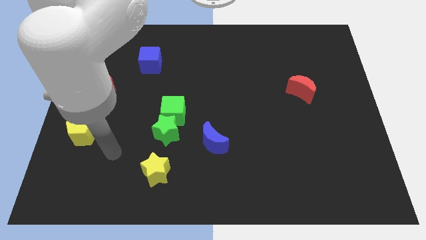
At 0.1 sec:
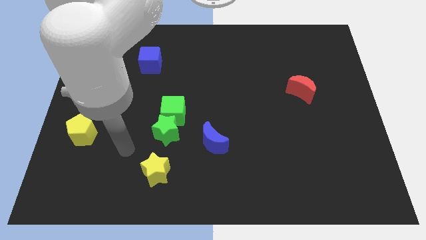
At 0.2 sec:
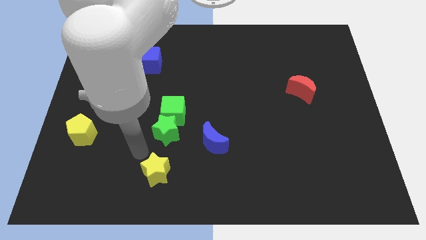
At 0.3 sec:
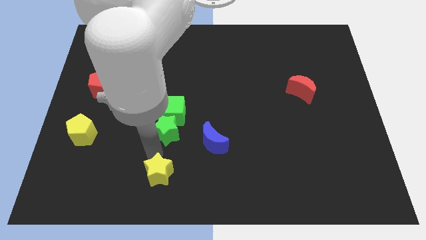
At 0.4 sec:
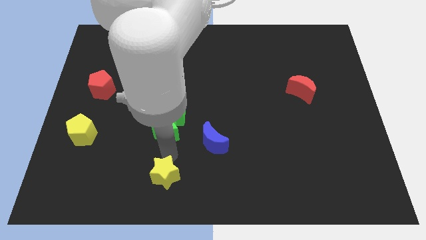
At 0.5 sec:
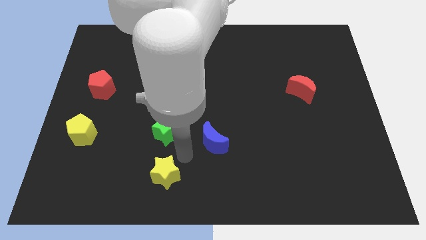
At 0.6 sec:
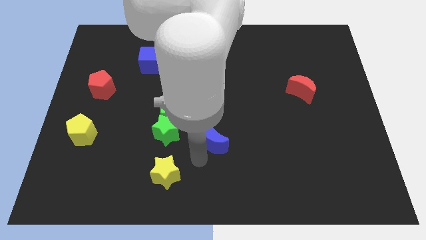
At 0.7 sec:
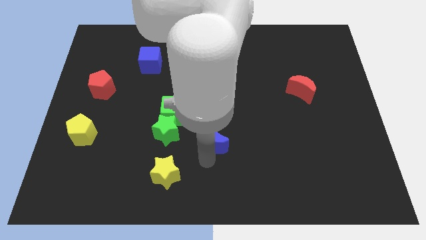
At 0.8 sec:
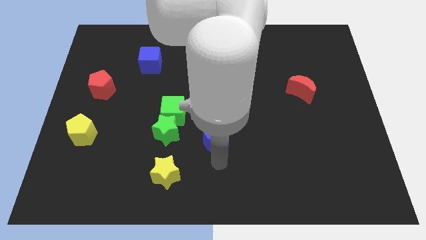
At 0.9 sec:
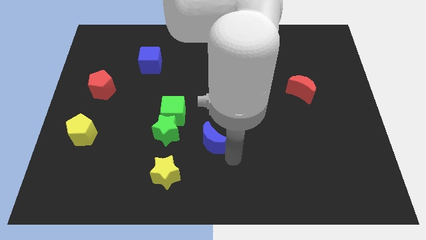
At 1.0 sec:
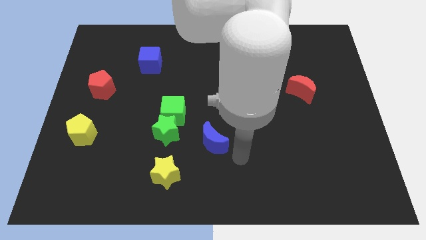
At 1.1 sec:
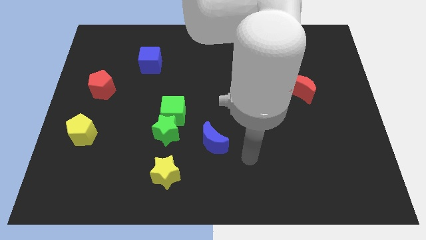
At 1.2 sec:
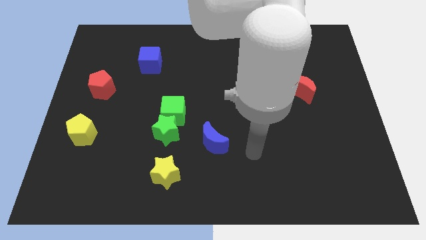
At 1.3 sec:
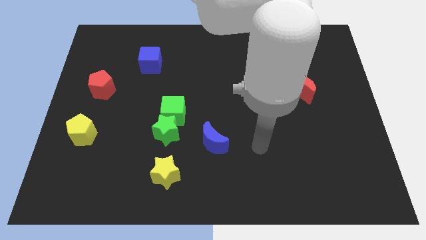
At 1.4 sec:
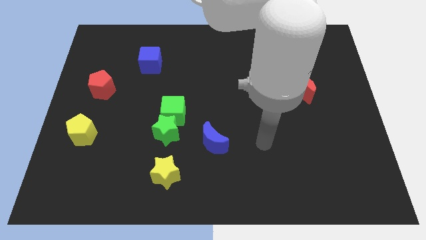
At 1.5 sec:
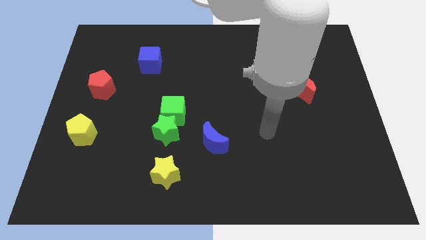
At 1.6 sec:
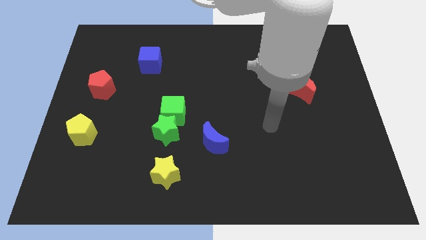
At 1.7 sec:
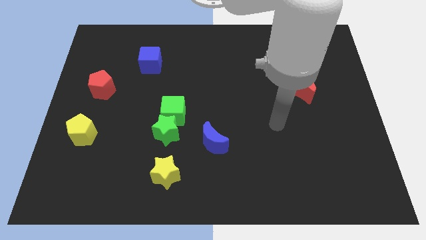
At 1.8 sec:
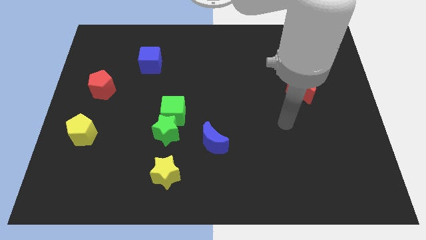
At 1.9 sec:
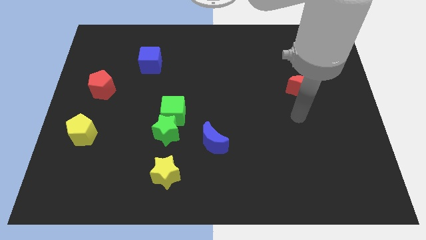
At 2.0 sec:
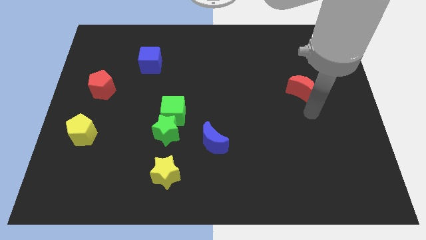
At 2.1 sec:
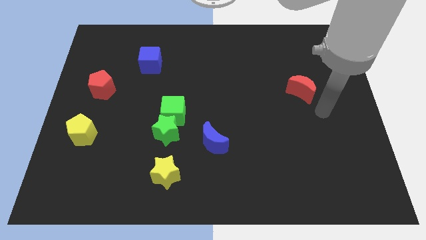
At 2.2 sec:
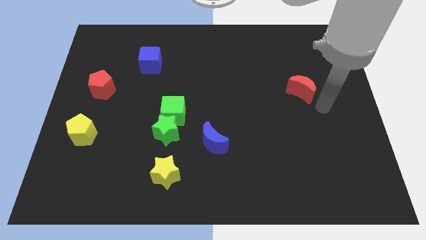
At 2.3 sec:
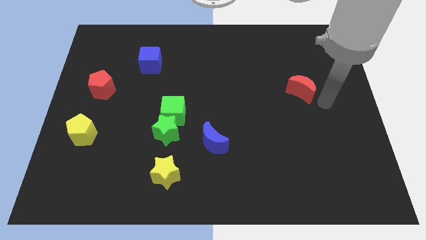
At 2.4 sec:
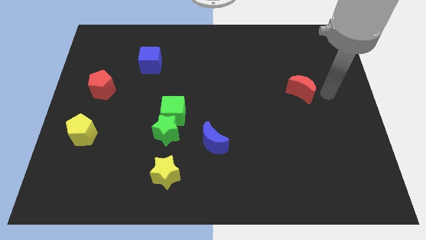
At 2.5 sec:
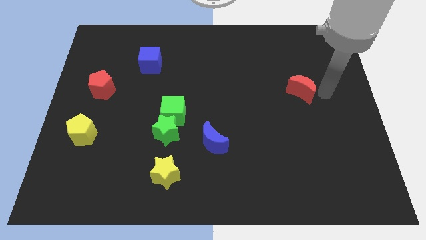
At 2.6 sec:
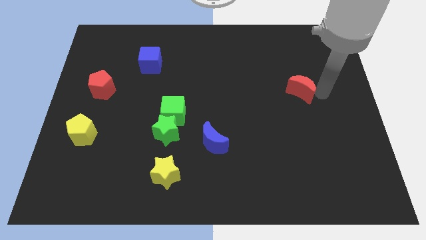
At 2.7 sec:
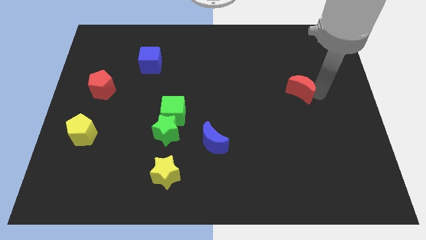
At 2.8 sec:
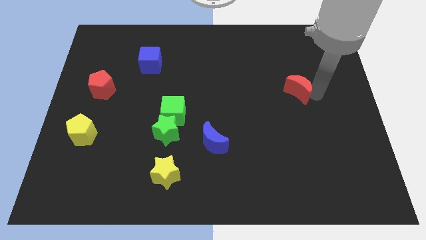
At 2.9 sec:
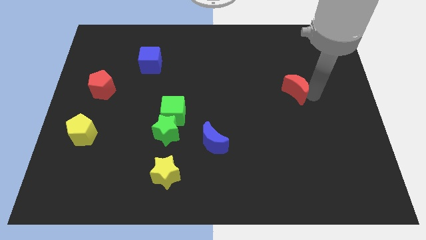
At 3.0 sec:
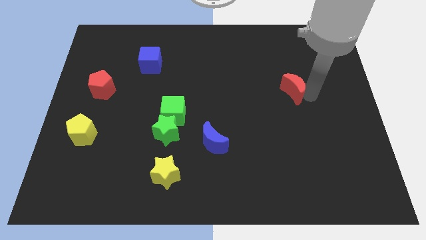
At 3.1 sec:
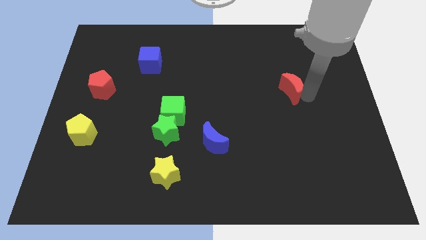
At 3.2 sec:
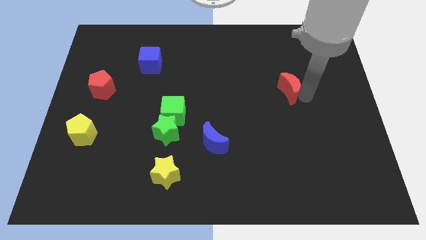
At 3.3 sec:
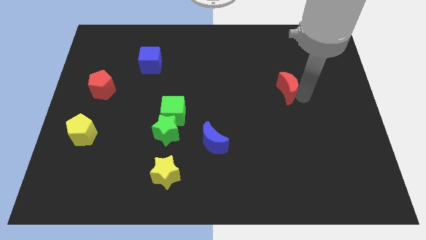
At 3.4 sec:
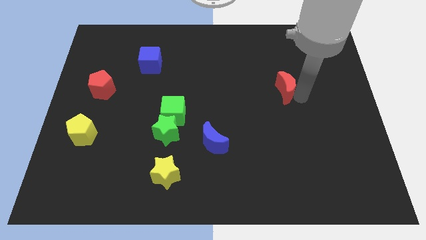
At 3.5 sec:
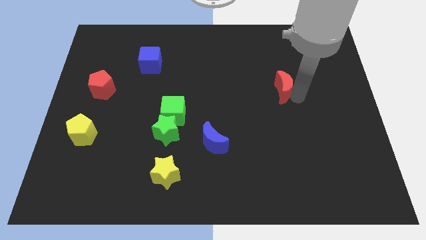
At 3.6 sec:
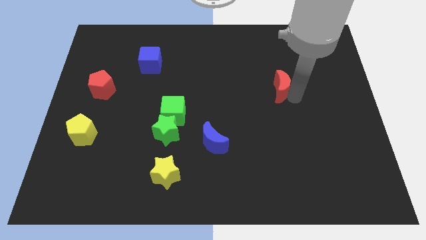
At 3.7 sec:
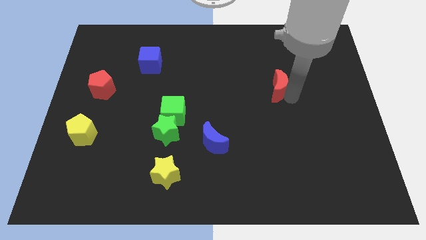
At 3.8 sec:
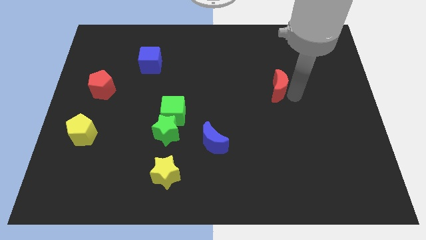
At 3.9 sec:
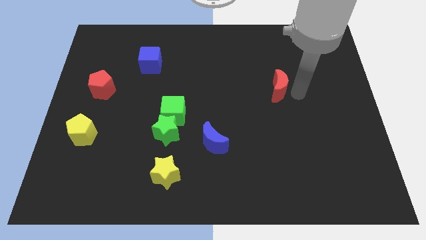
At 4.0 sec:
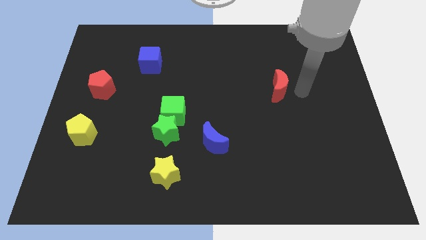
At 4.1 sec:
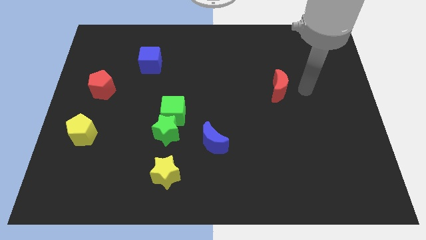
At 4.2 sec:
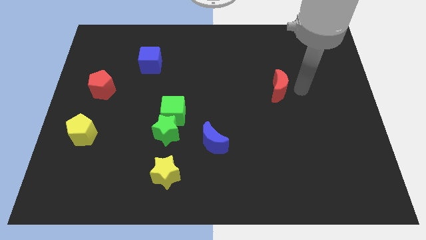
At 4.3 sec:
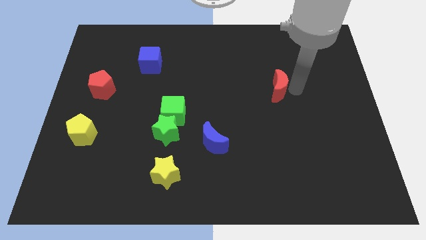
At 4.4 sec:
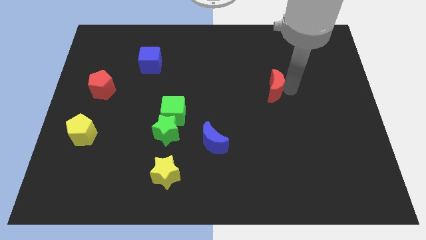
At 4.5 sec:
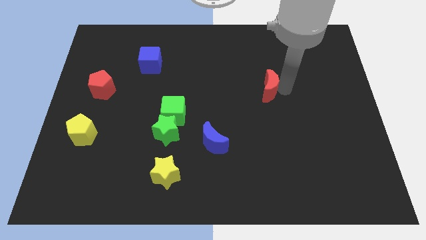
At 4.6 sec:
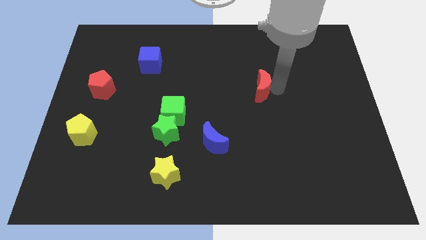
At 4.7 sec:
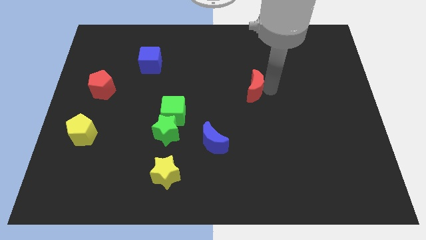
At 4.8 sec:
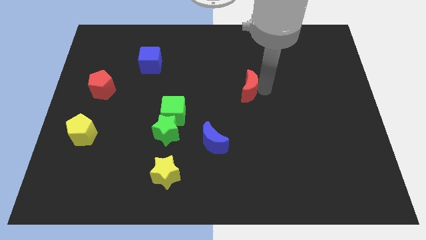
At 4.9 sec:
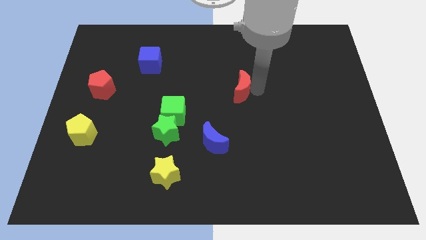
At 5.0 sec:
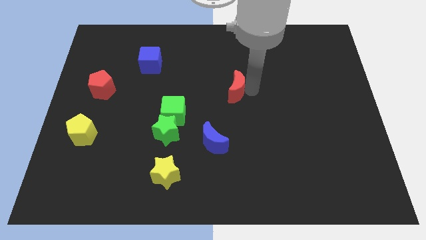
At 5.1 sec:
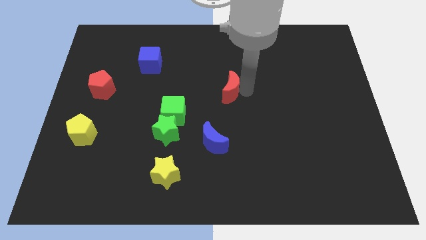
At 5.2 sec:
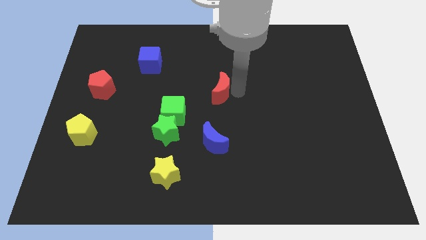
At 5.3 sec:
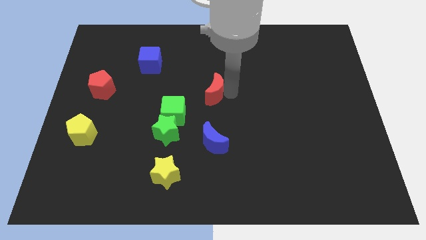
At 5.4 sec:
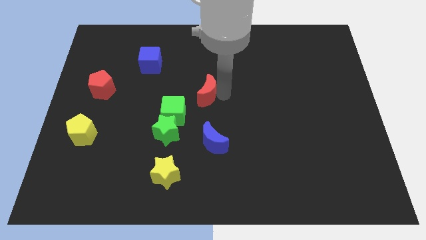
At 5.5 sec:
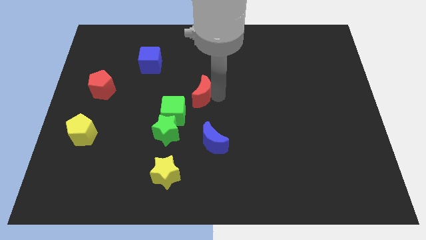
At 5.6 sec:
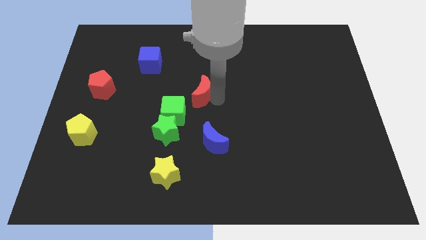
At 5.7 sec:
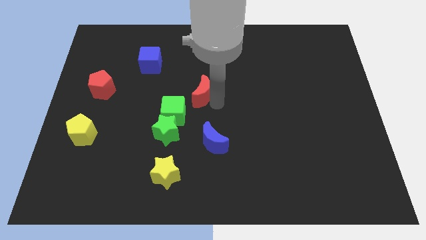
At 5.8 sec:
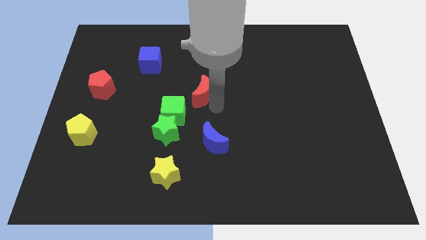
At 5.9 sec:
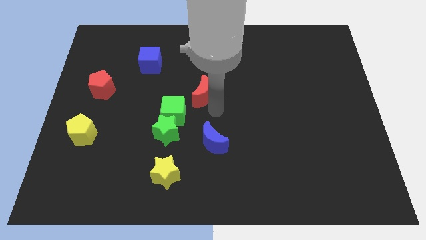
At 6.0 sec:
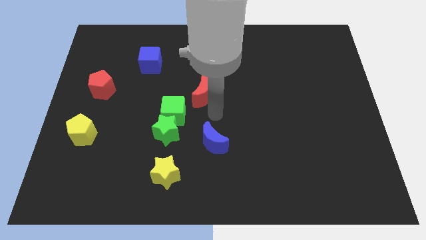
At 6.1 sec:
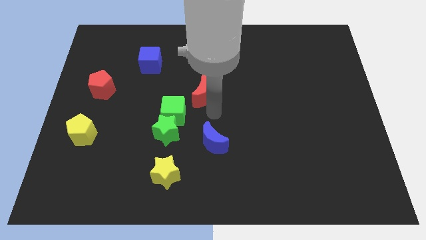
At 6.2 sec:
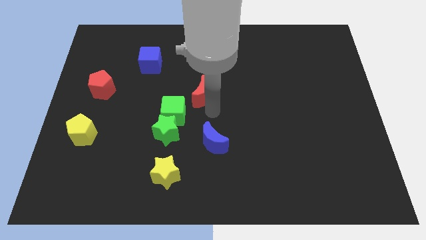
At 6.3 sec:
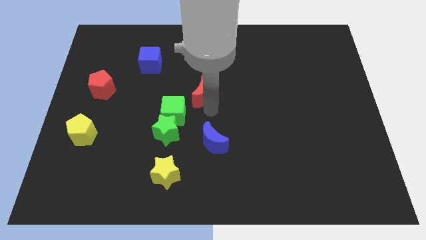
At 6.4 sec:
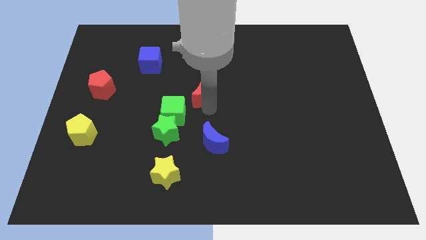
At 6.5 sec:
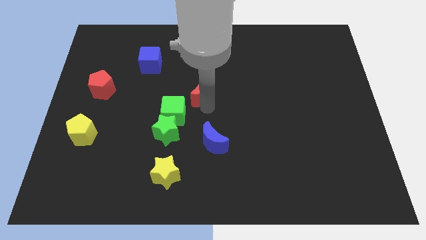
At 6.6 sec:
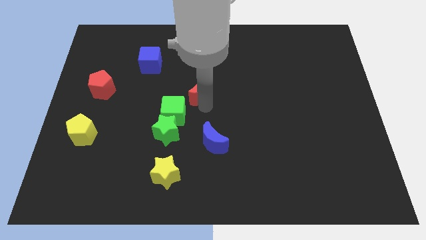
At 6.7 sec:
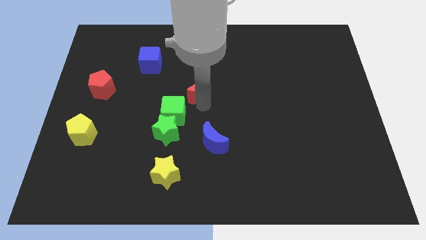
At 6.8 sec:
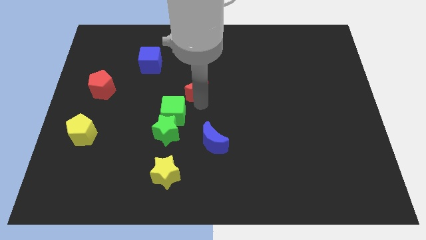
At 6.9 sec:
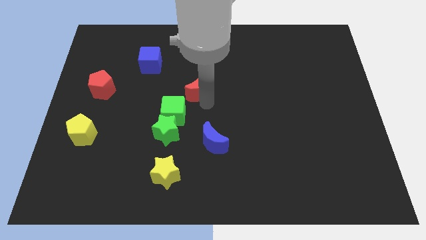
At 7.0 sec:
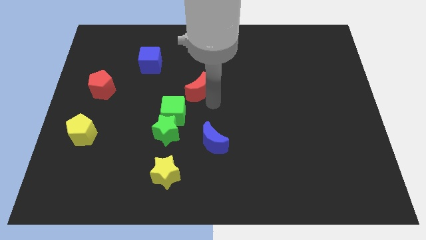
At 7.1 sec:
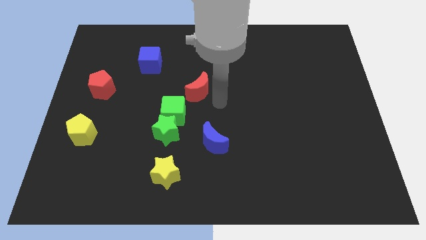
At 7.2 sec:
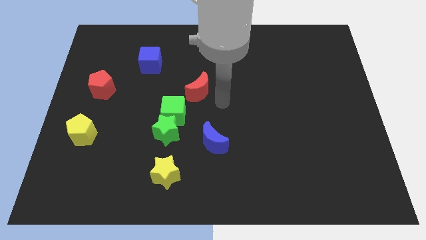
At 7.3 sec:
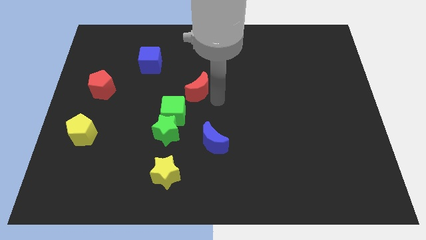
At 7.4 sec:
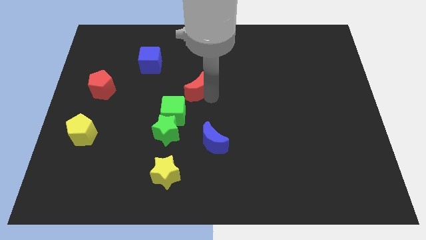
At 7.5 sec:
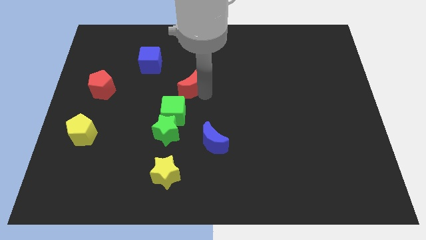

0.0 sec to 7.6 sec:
slide the red moon to the top side of the green cube
